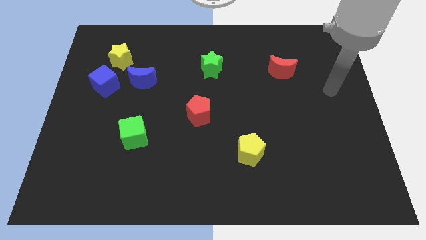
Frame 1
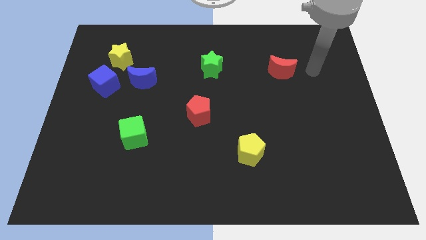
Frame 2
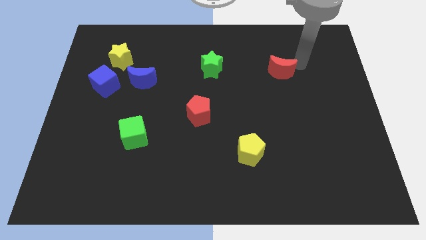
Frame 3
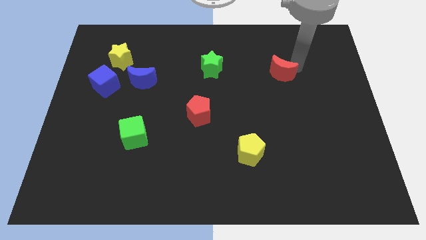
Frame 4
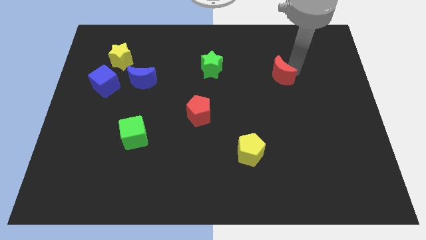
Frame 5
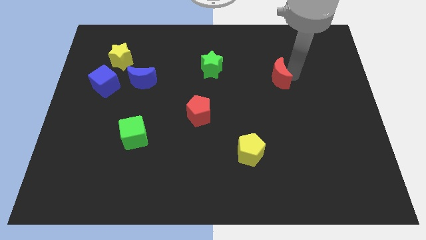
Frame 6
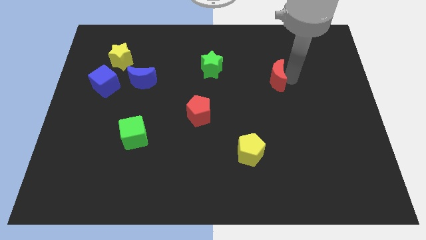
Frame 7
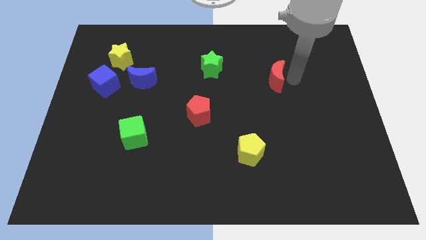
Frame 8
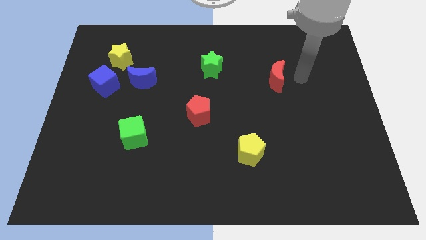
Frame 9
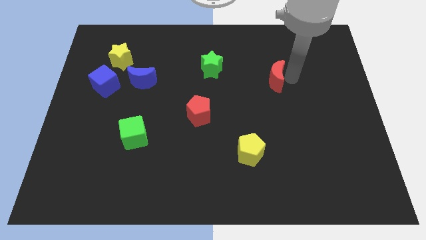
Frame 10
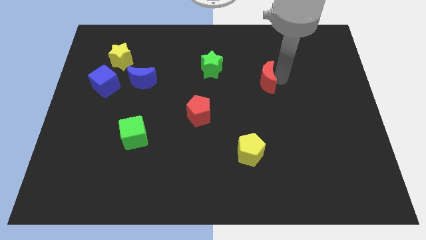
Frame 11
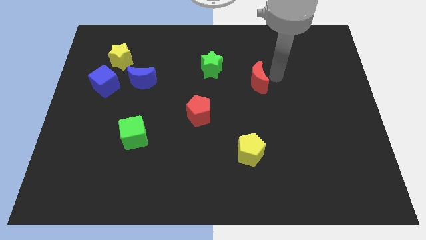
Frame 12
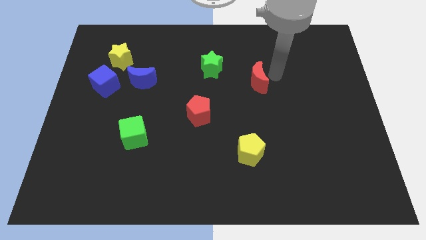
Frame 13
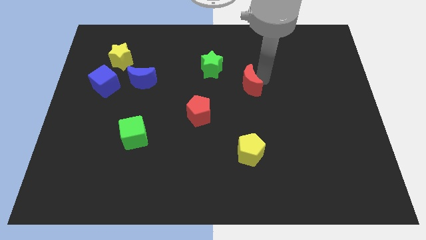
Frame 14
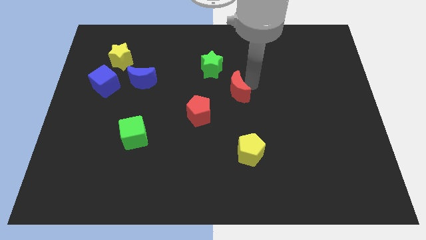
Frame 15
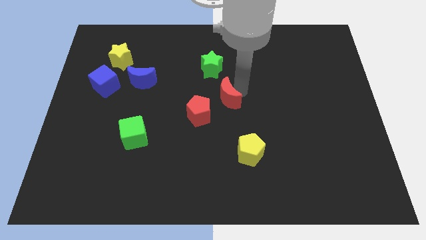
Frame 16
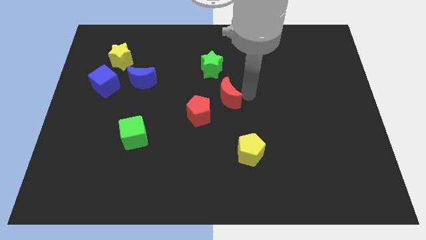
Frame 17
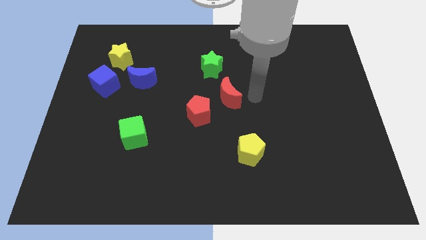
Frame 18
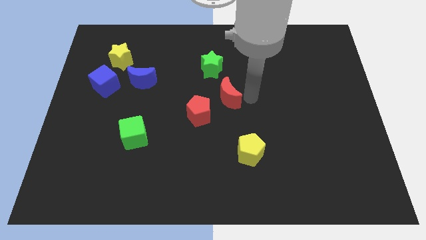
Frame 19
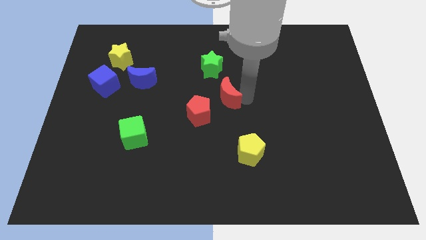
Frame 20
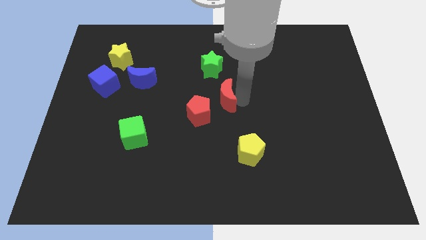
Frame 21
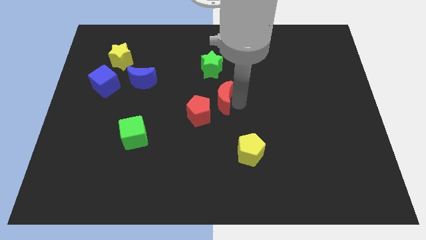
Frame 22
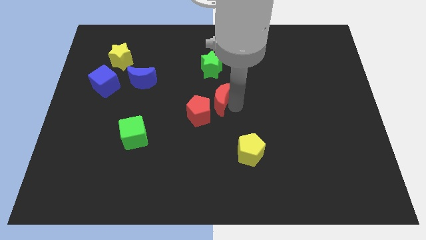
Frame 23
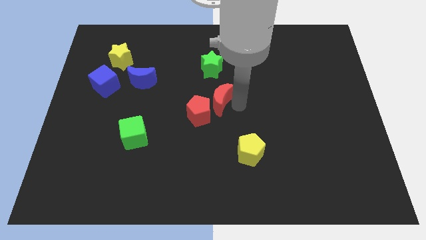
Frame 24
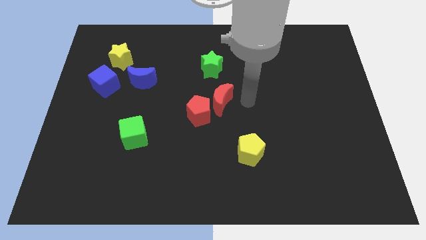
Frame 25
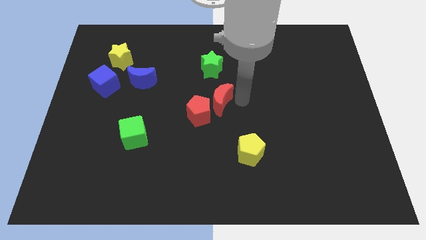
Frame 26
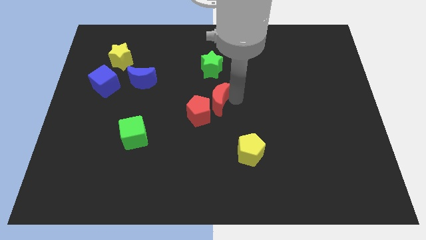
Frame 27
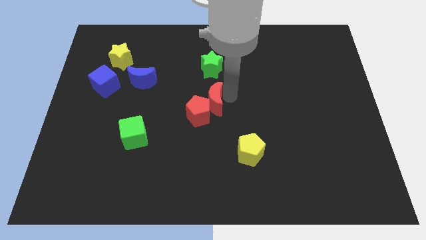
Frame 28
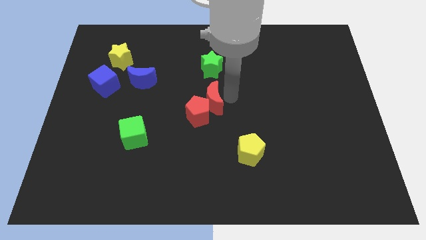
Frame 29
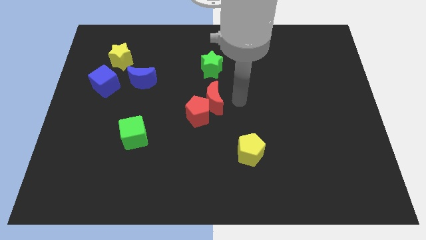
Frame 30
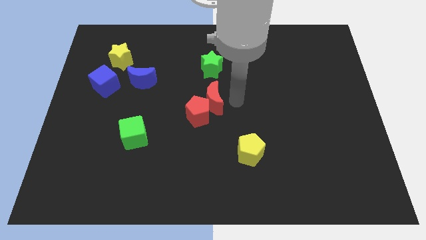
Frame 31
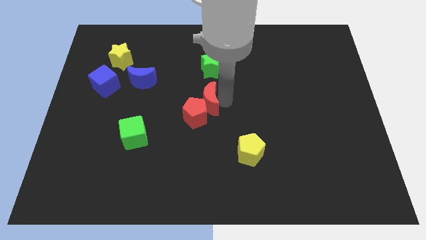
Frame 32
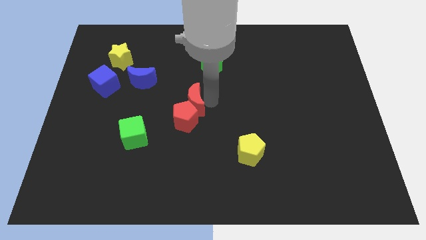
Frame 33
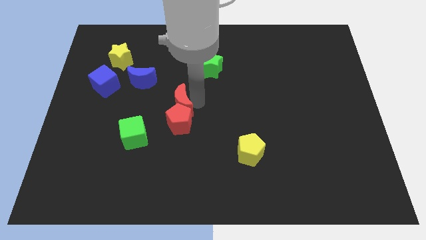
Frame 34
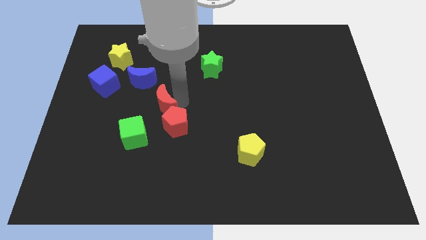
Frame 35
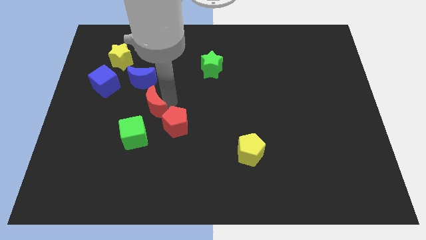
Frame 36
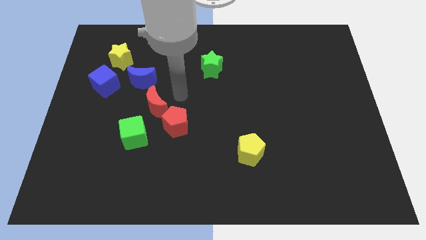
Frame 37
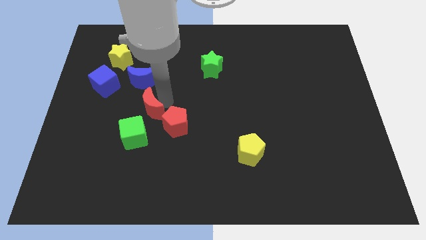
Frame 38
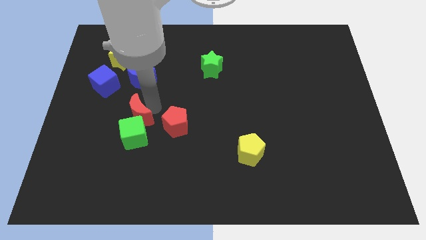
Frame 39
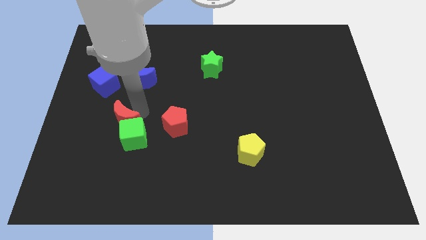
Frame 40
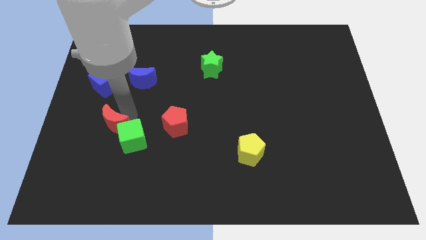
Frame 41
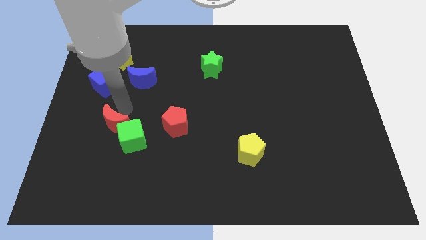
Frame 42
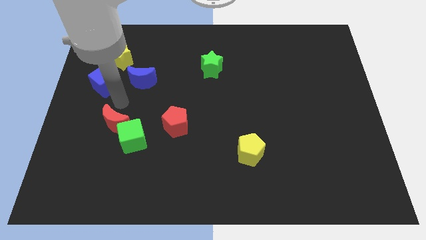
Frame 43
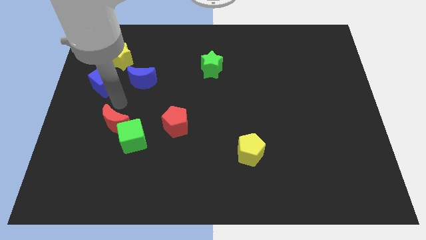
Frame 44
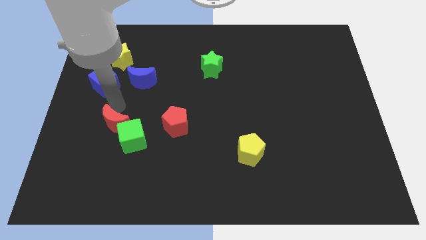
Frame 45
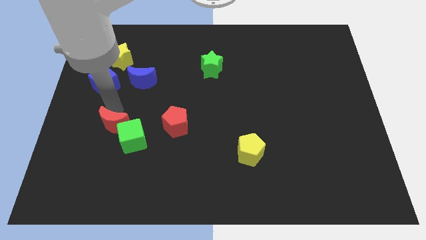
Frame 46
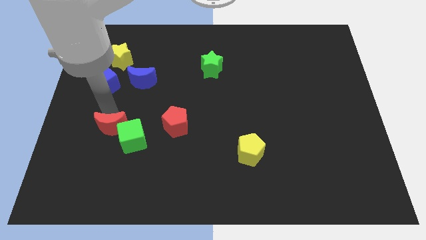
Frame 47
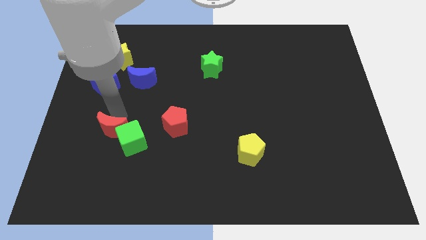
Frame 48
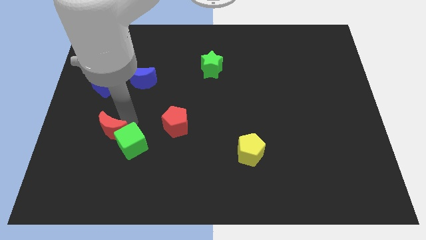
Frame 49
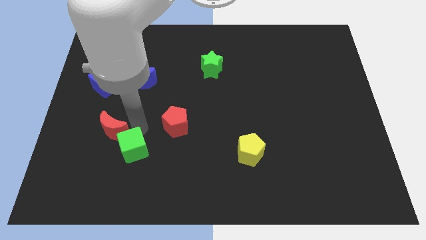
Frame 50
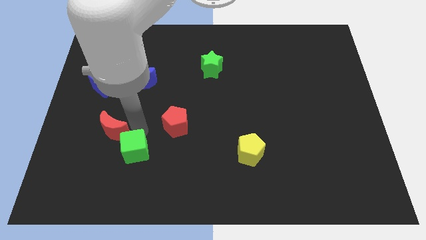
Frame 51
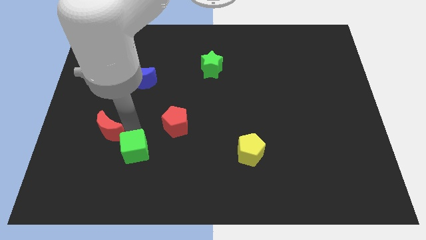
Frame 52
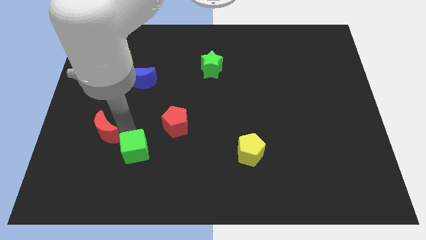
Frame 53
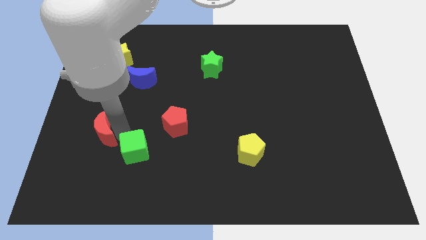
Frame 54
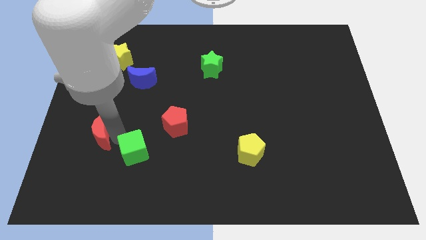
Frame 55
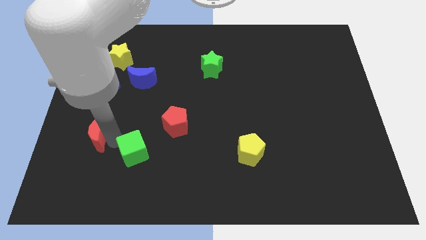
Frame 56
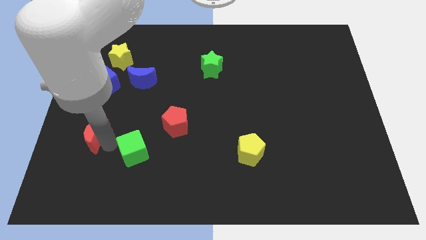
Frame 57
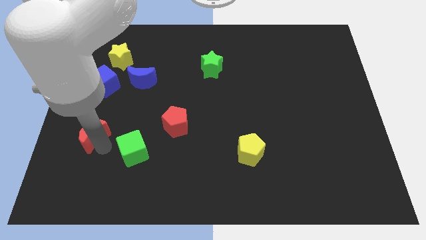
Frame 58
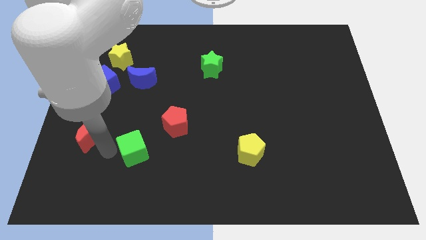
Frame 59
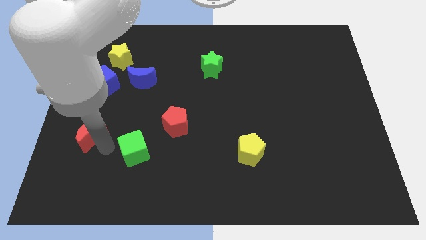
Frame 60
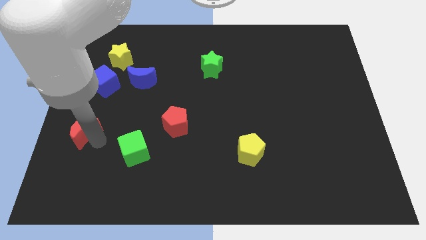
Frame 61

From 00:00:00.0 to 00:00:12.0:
move the red moon to the center left

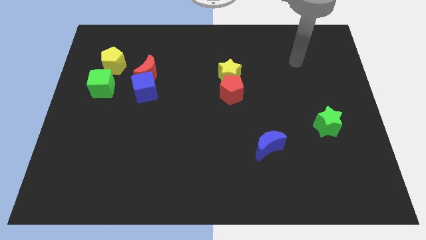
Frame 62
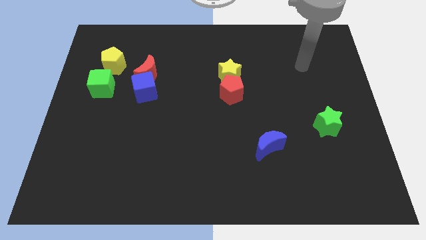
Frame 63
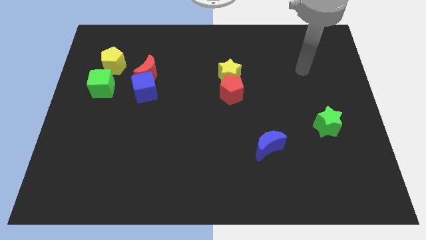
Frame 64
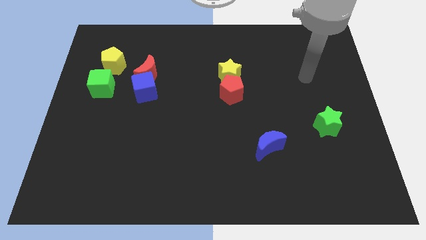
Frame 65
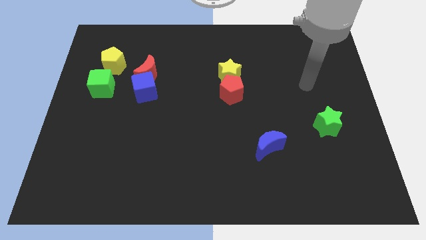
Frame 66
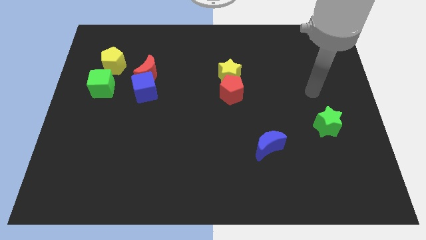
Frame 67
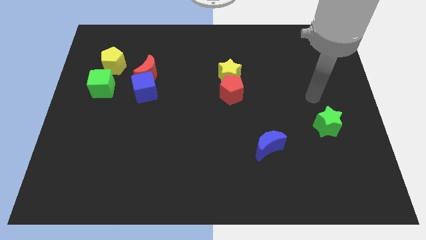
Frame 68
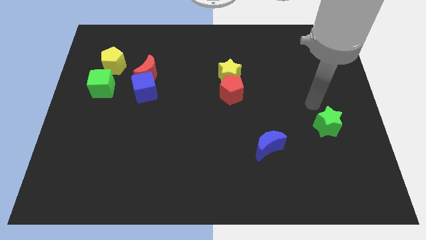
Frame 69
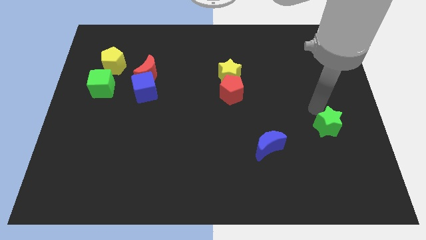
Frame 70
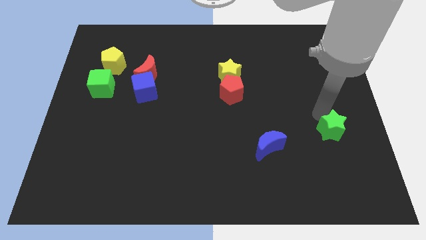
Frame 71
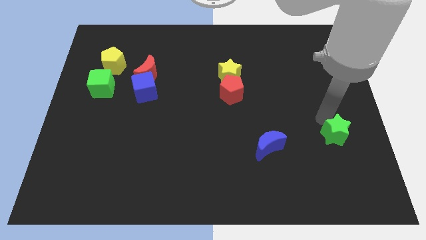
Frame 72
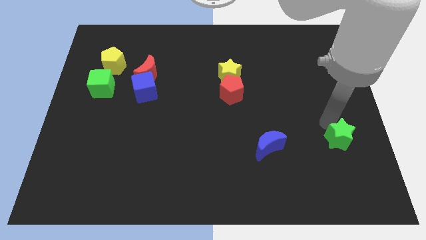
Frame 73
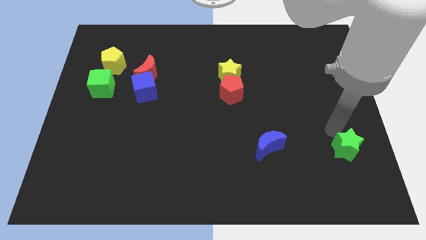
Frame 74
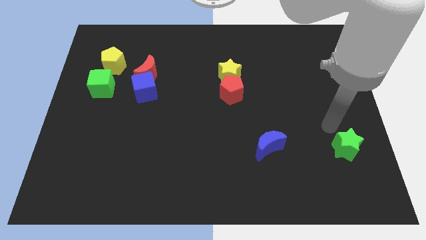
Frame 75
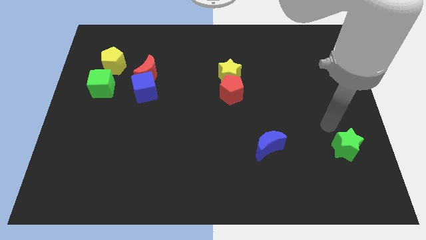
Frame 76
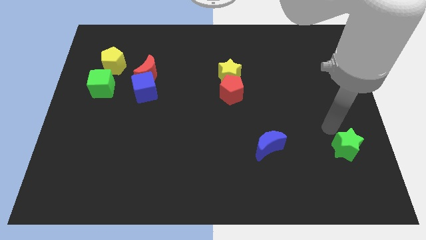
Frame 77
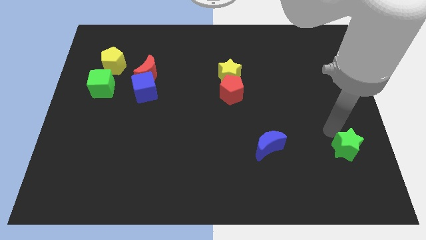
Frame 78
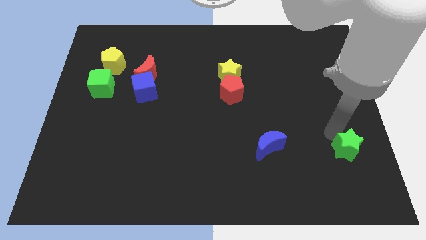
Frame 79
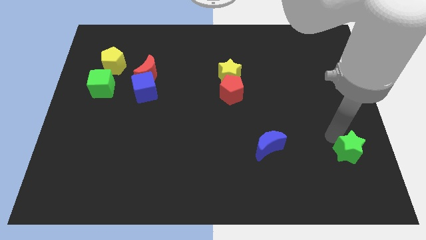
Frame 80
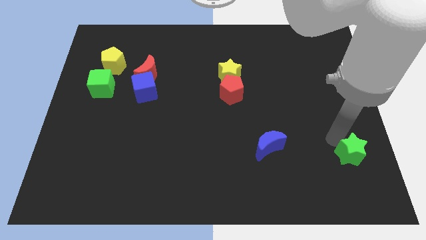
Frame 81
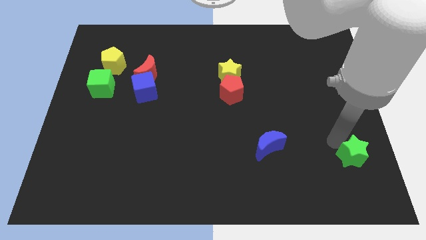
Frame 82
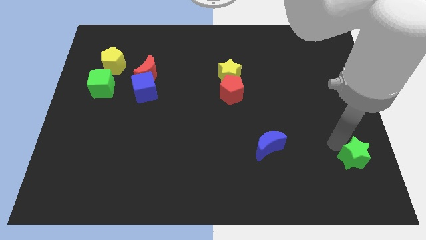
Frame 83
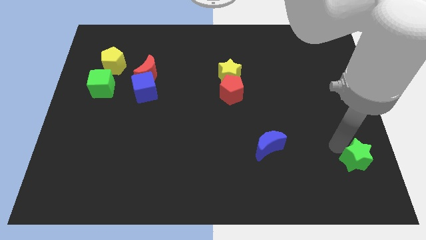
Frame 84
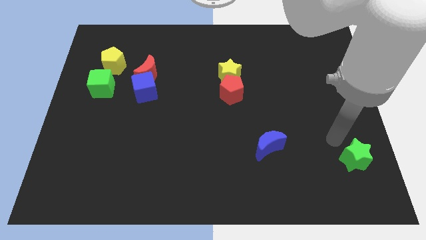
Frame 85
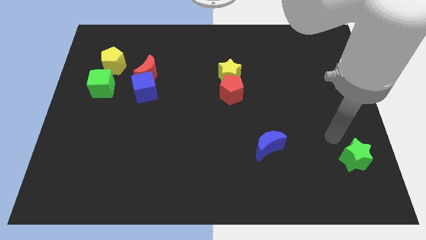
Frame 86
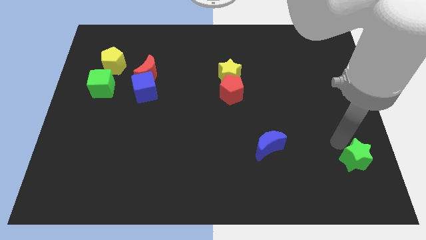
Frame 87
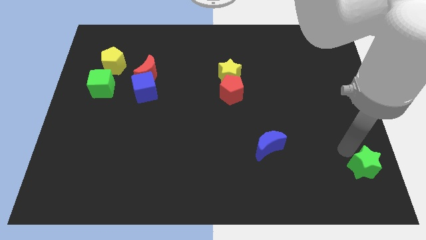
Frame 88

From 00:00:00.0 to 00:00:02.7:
move the green star to the bottom right of the board
